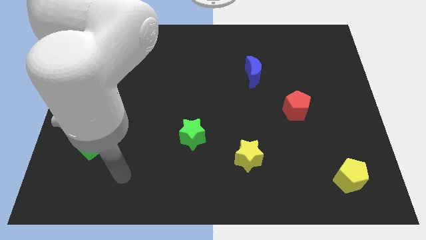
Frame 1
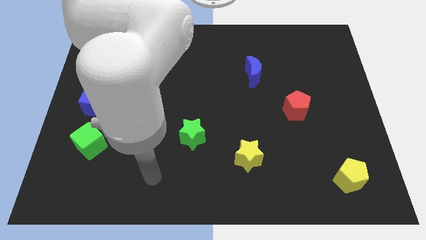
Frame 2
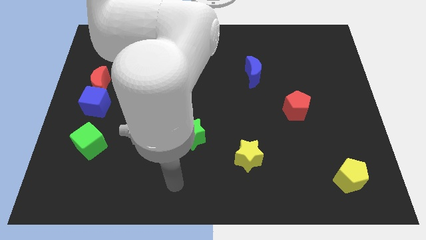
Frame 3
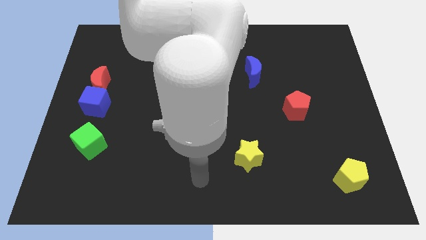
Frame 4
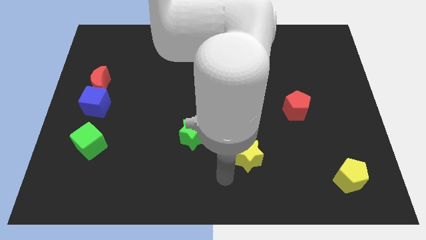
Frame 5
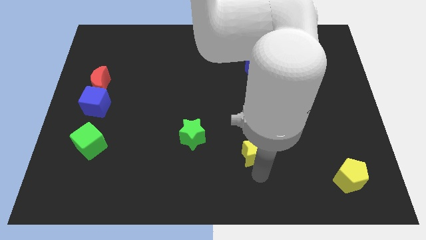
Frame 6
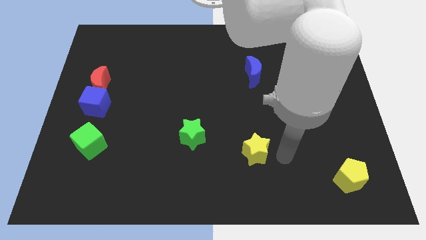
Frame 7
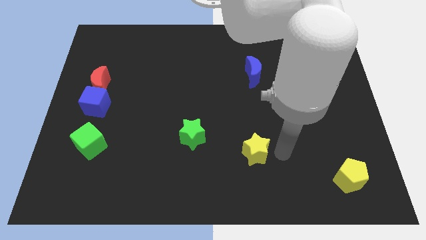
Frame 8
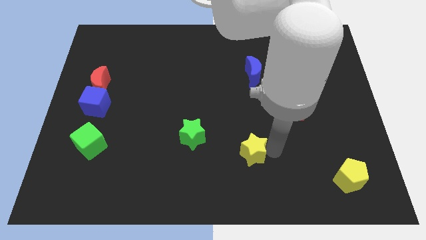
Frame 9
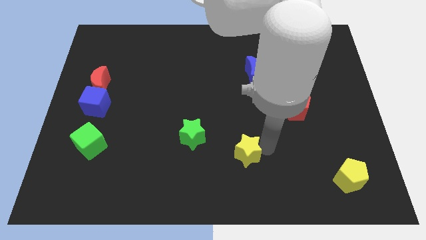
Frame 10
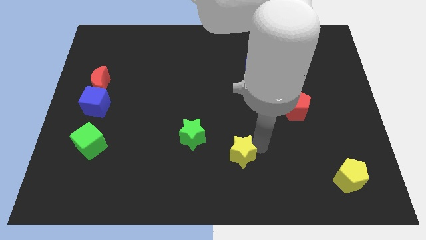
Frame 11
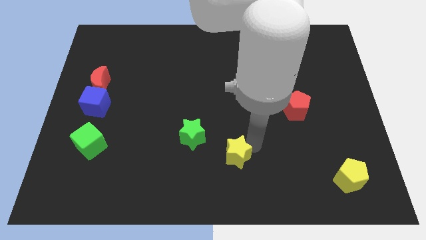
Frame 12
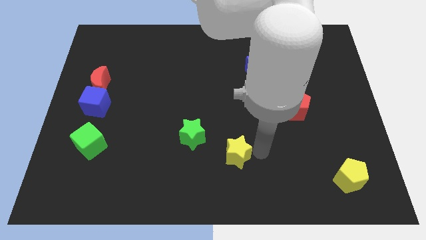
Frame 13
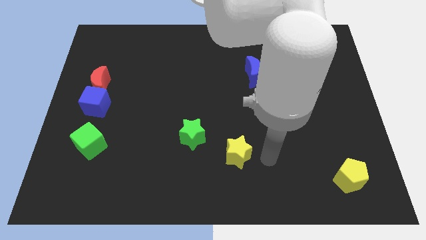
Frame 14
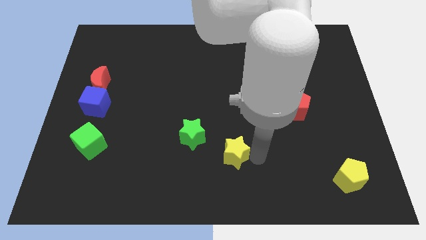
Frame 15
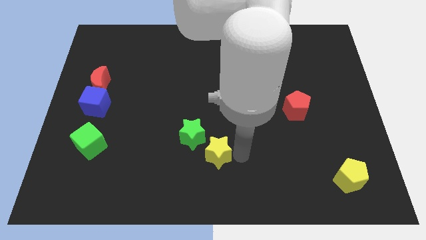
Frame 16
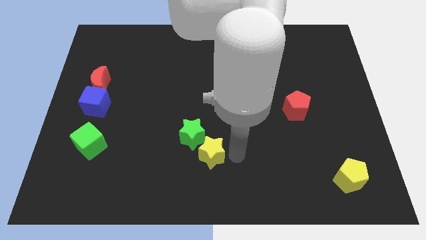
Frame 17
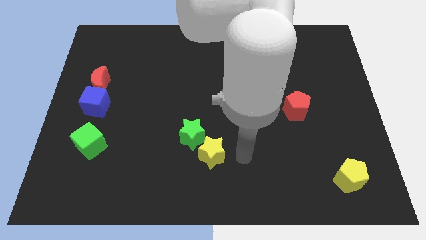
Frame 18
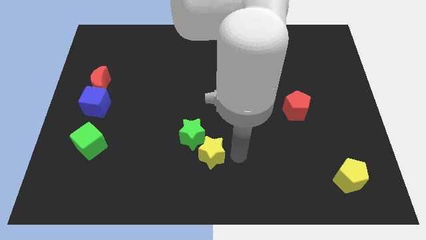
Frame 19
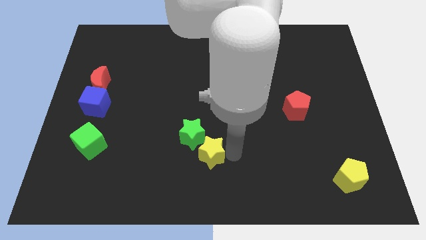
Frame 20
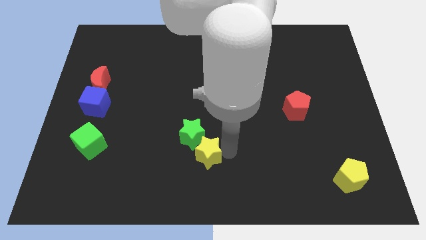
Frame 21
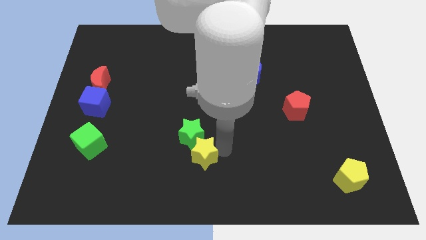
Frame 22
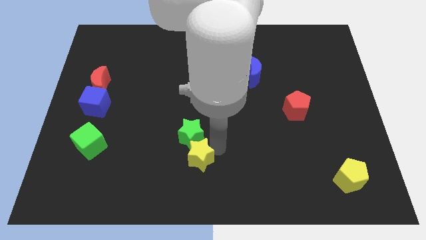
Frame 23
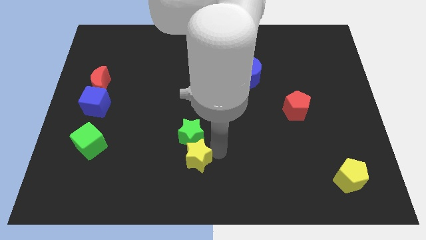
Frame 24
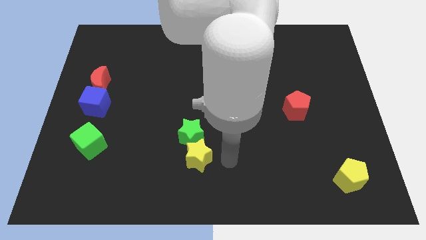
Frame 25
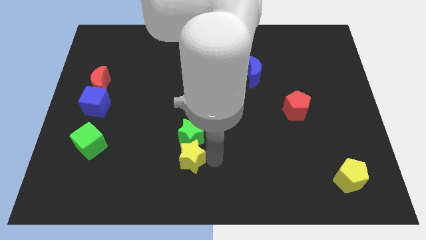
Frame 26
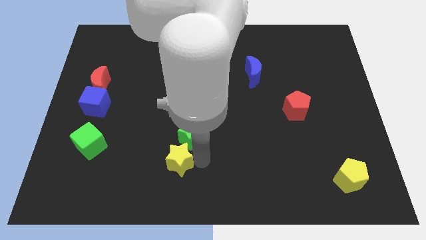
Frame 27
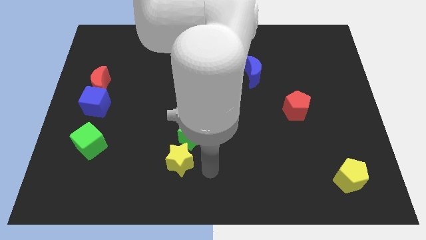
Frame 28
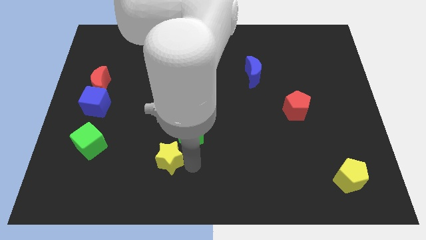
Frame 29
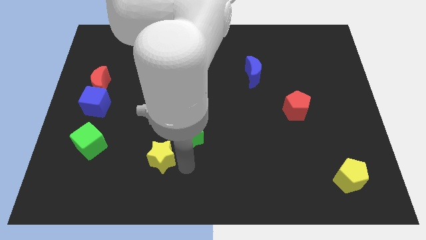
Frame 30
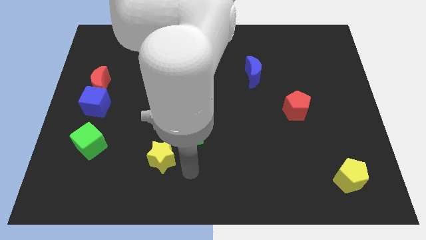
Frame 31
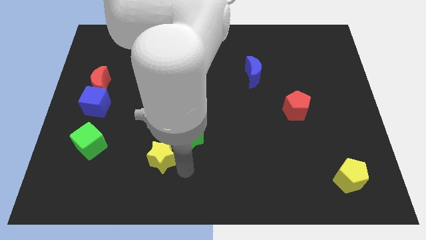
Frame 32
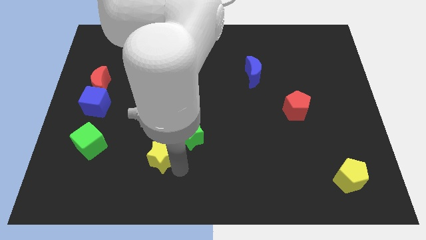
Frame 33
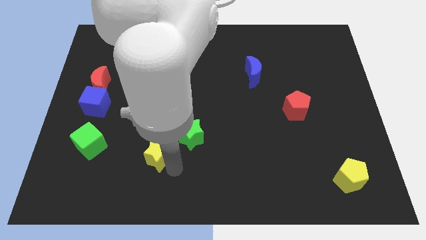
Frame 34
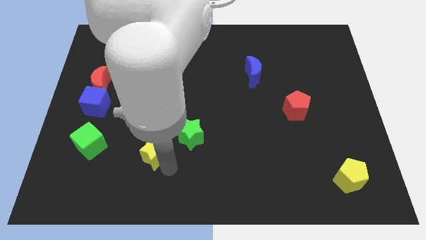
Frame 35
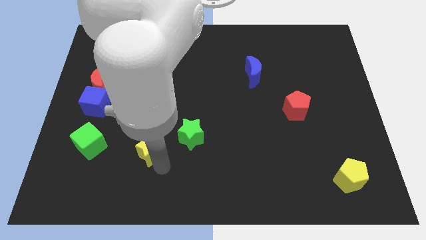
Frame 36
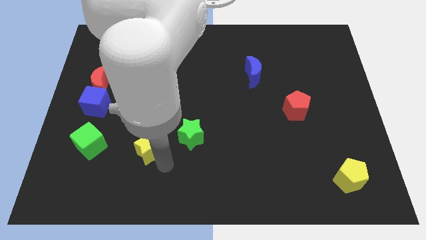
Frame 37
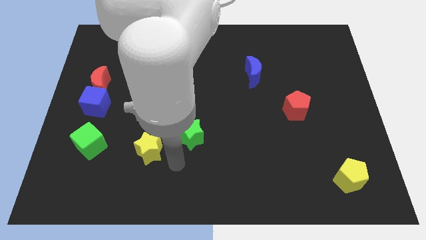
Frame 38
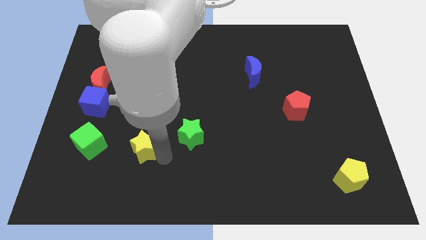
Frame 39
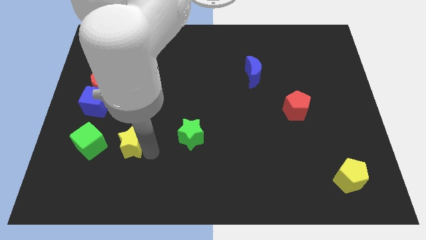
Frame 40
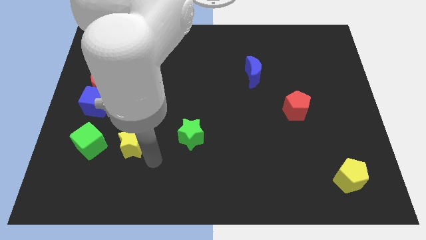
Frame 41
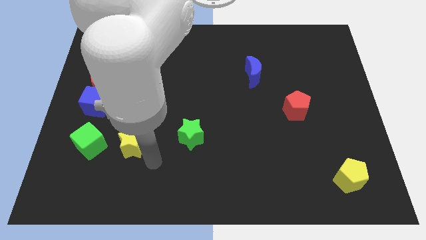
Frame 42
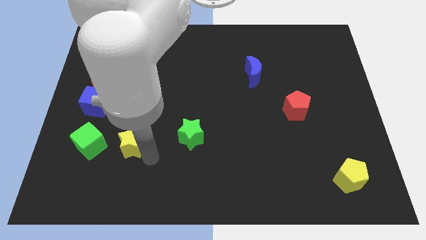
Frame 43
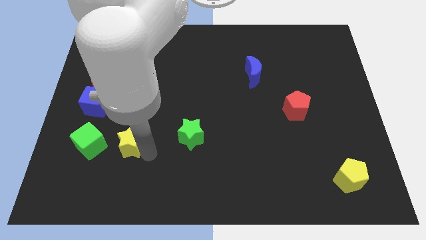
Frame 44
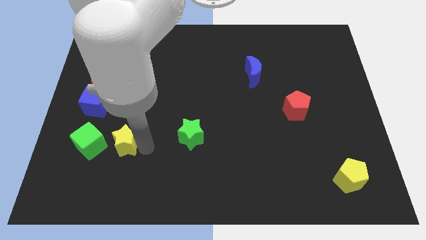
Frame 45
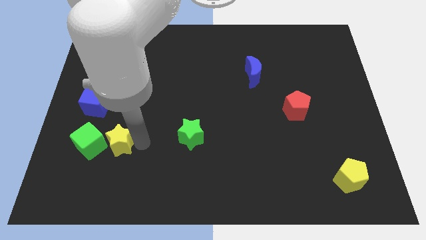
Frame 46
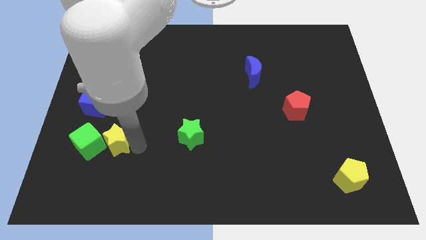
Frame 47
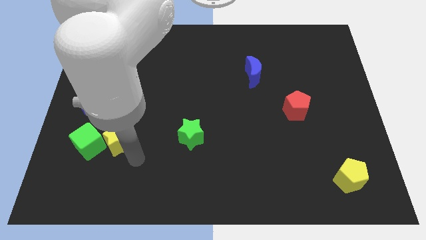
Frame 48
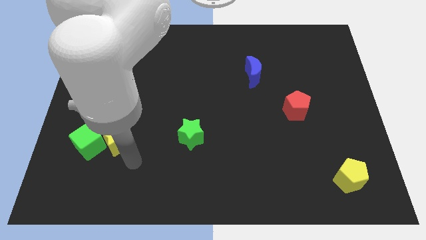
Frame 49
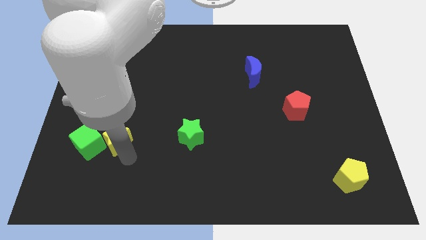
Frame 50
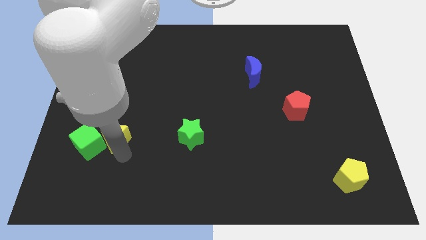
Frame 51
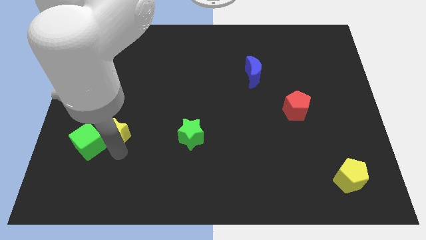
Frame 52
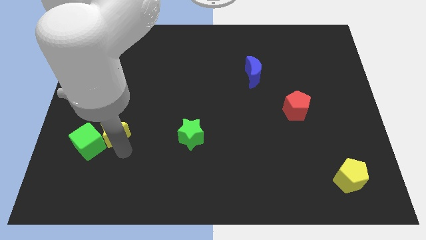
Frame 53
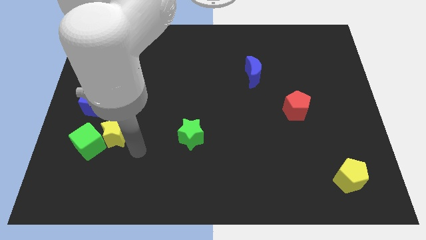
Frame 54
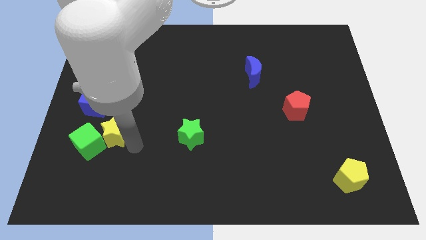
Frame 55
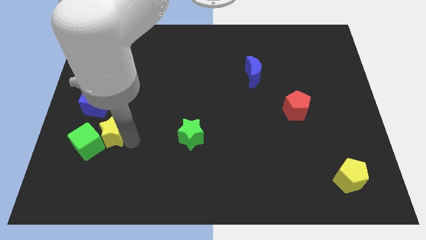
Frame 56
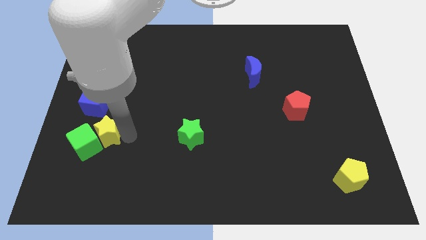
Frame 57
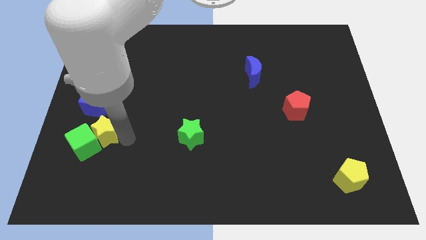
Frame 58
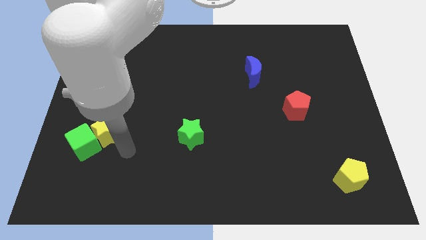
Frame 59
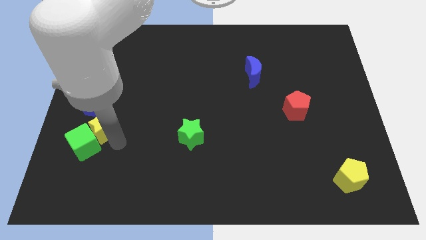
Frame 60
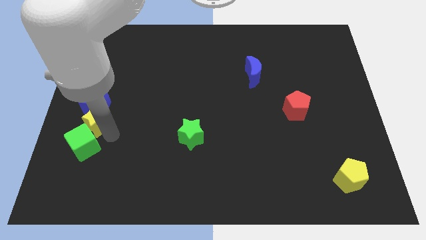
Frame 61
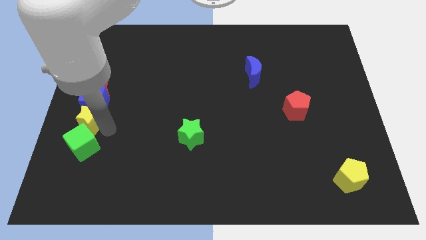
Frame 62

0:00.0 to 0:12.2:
move the yellow star to the left side
